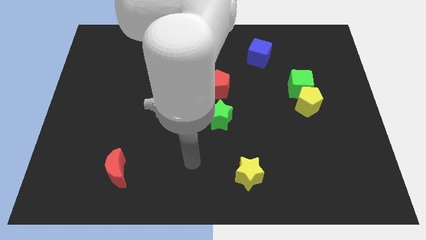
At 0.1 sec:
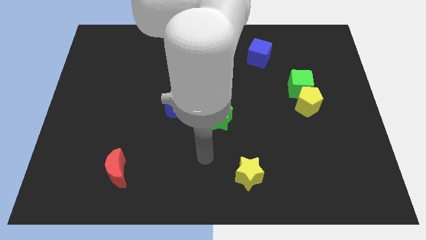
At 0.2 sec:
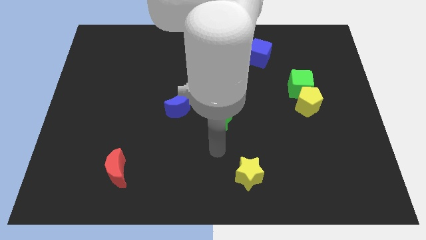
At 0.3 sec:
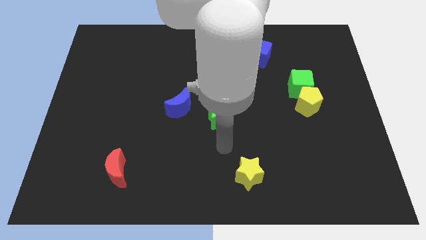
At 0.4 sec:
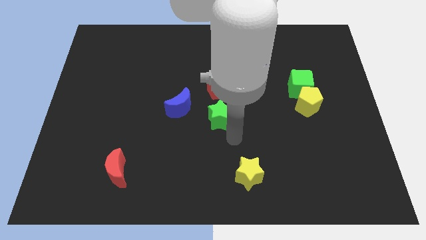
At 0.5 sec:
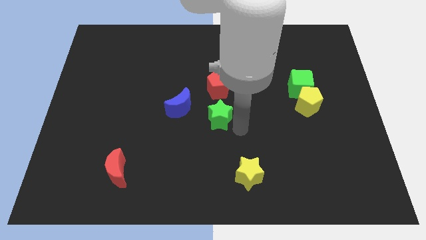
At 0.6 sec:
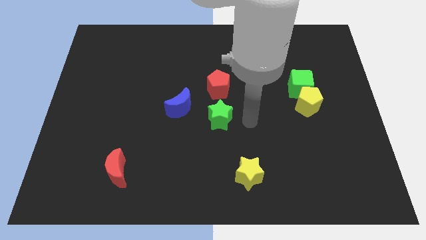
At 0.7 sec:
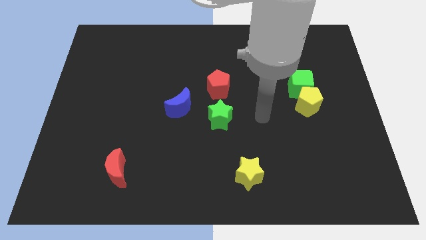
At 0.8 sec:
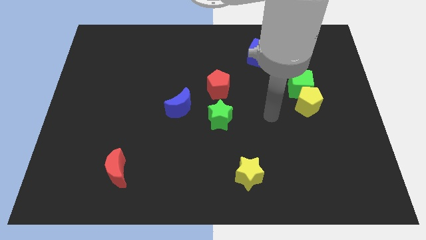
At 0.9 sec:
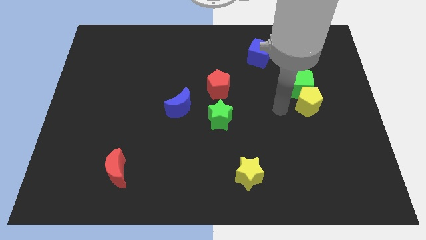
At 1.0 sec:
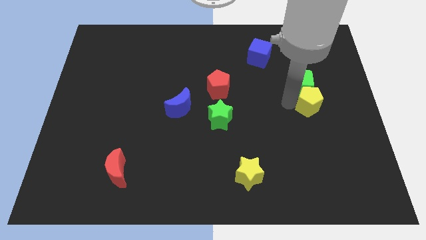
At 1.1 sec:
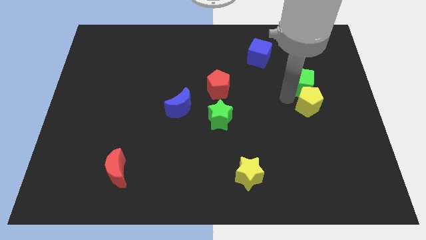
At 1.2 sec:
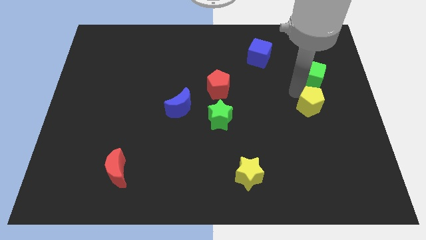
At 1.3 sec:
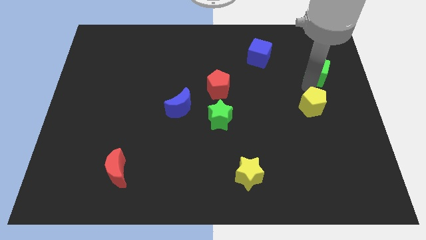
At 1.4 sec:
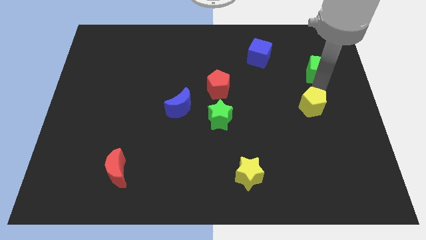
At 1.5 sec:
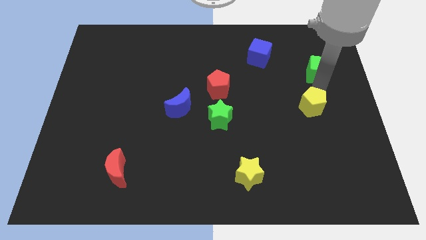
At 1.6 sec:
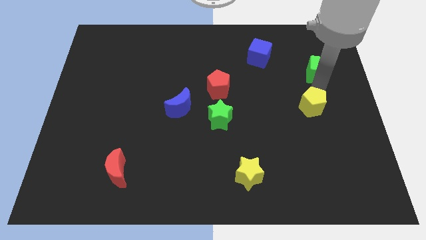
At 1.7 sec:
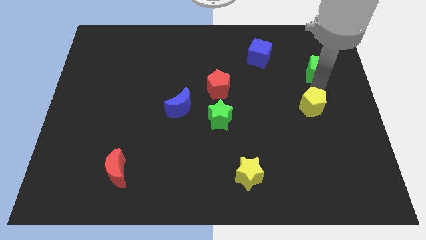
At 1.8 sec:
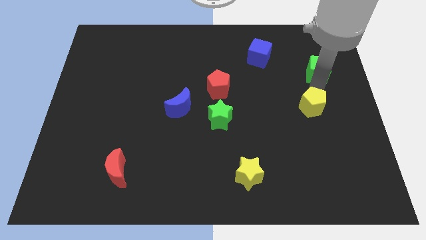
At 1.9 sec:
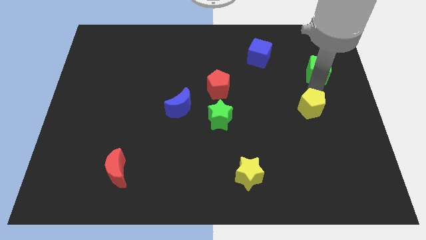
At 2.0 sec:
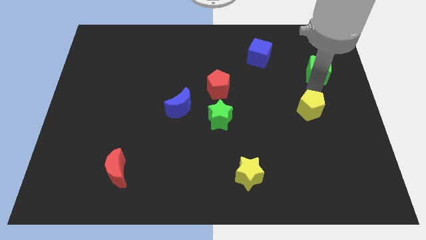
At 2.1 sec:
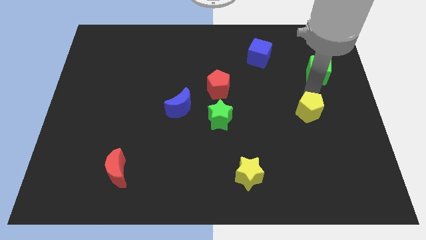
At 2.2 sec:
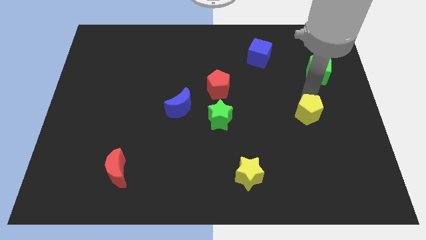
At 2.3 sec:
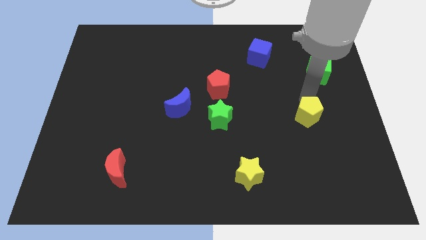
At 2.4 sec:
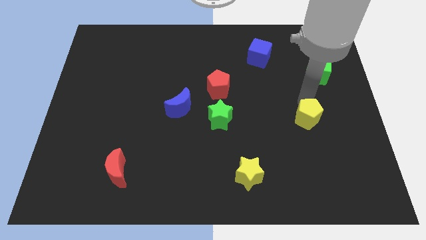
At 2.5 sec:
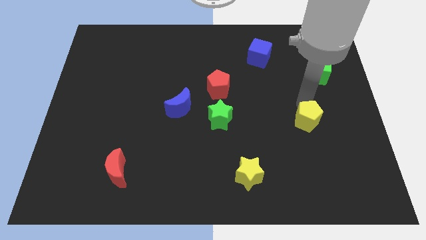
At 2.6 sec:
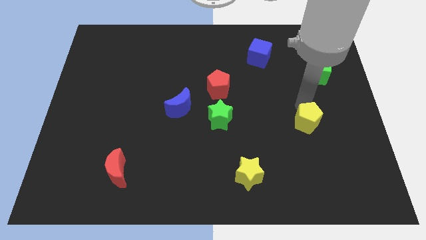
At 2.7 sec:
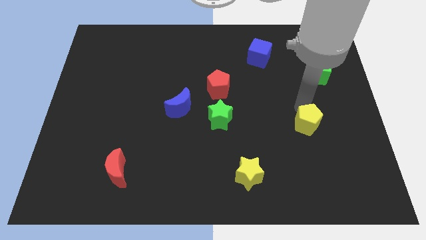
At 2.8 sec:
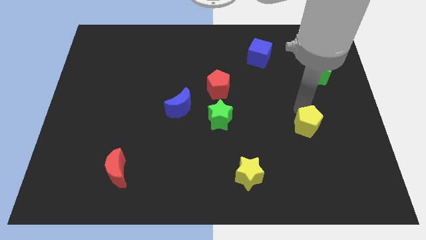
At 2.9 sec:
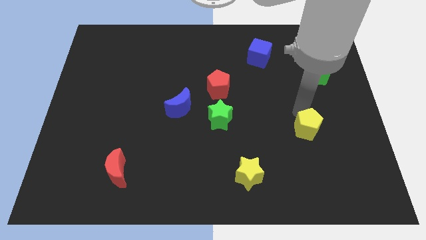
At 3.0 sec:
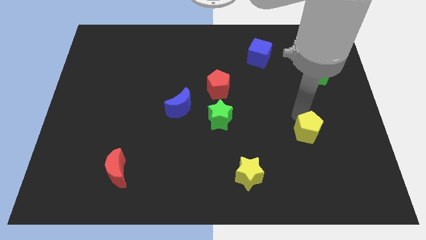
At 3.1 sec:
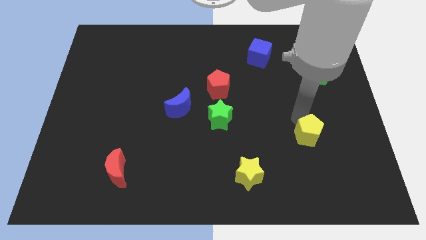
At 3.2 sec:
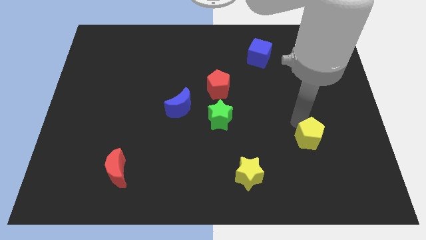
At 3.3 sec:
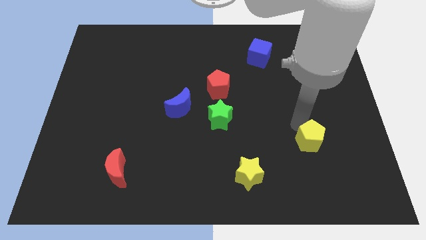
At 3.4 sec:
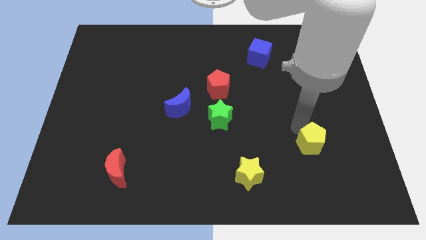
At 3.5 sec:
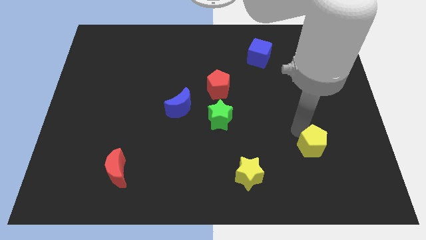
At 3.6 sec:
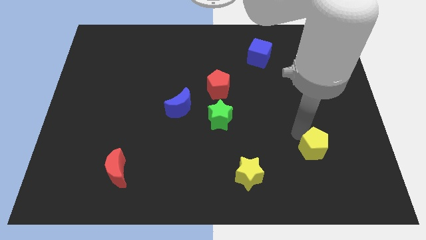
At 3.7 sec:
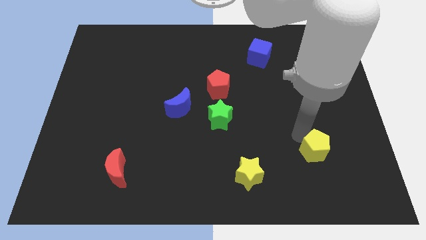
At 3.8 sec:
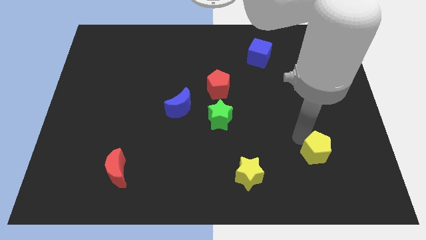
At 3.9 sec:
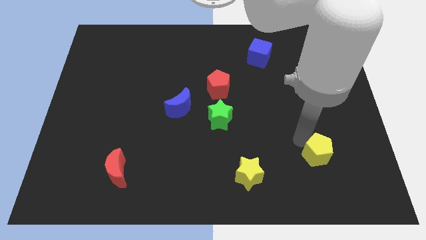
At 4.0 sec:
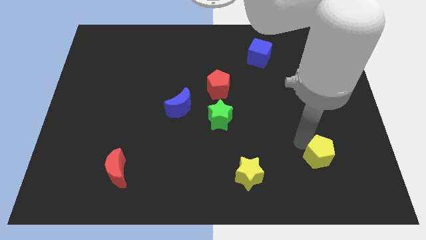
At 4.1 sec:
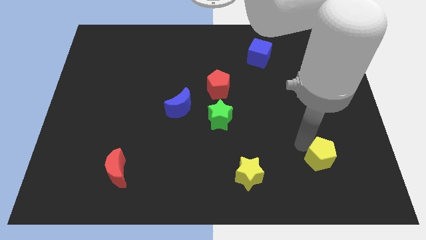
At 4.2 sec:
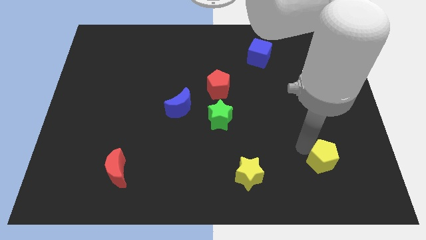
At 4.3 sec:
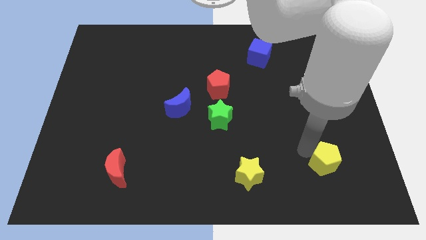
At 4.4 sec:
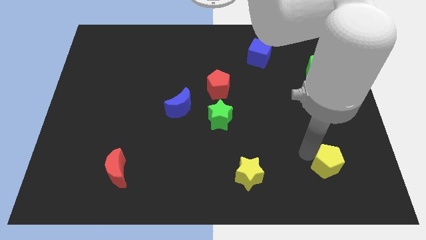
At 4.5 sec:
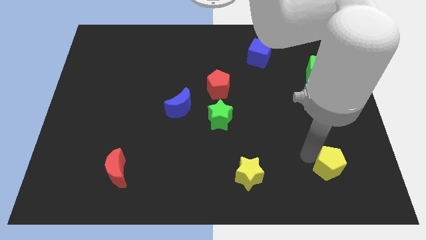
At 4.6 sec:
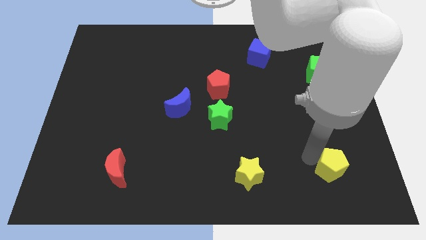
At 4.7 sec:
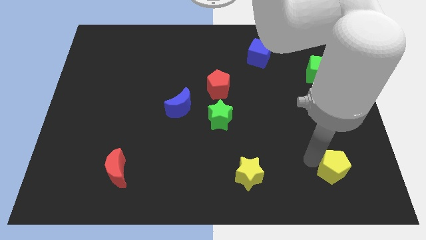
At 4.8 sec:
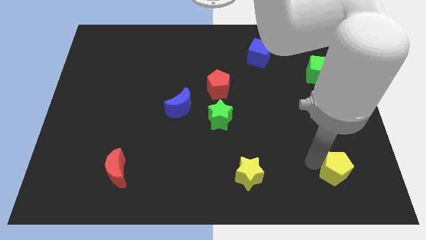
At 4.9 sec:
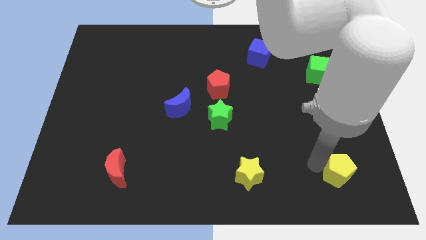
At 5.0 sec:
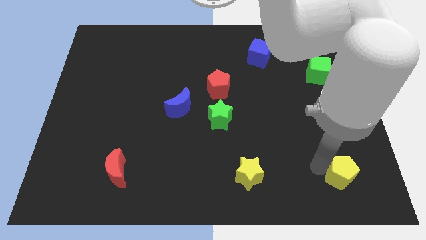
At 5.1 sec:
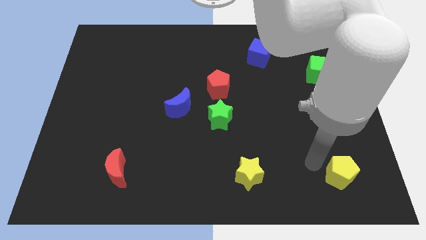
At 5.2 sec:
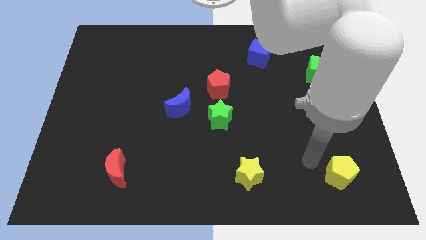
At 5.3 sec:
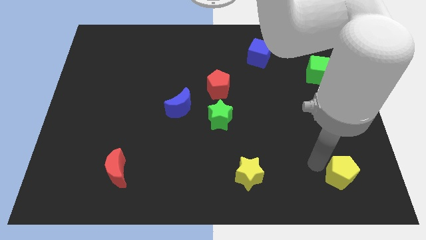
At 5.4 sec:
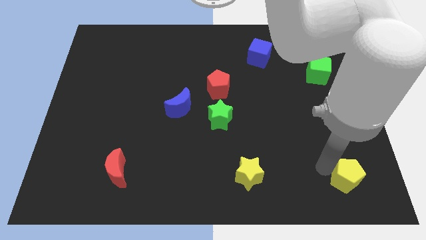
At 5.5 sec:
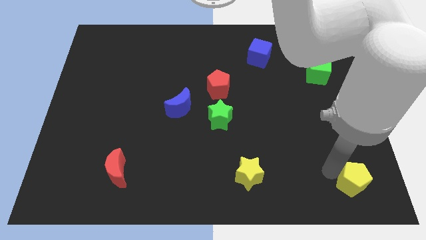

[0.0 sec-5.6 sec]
put the yellow pentagon to the bottom right corner
